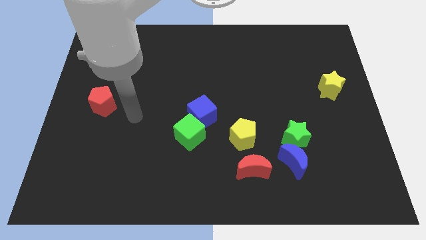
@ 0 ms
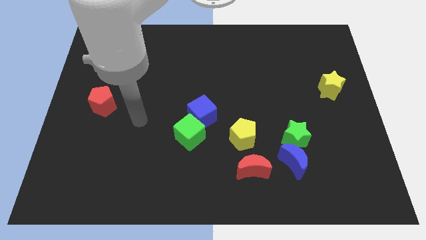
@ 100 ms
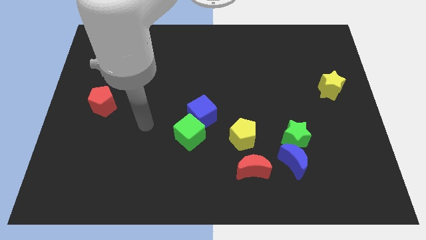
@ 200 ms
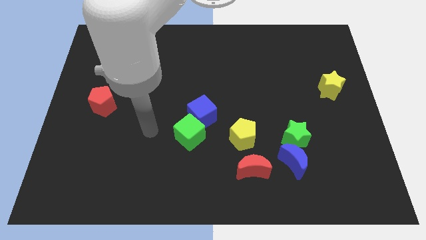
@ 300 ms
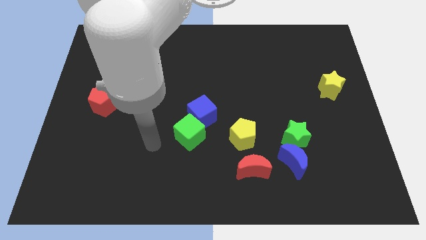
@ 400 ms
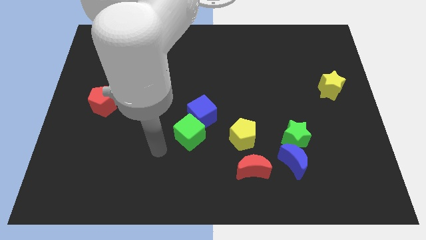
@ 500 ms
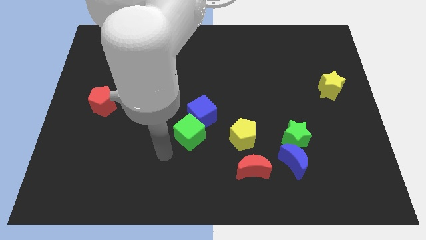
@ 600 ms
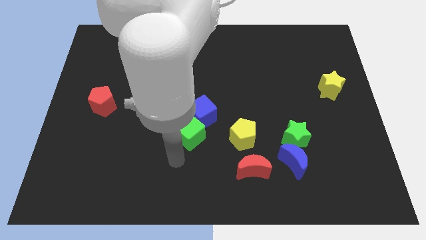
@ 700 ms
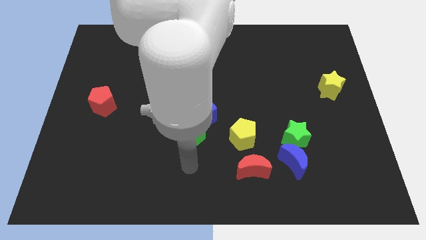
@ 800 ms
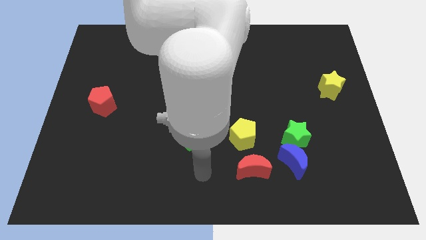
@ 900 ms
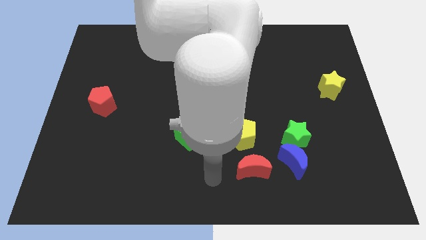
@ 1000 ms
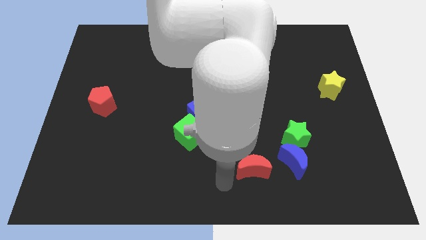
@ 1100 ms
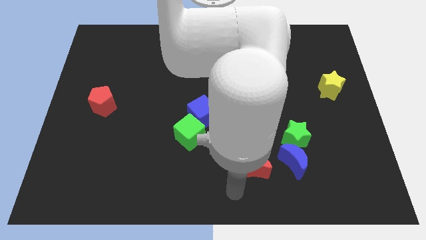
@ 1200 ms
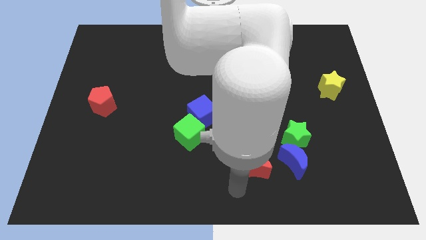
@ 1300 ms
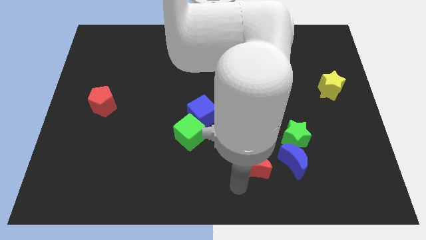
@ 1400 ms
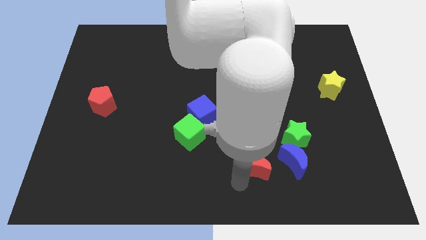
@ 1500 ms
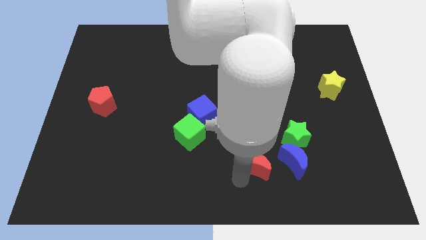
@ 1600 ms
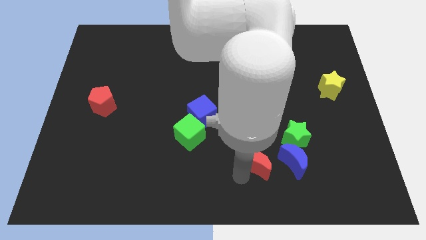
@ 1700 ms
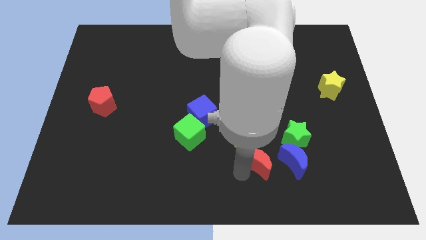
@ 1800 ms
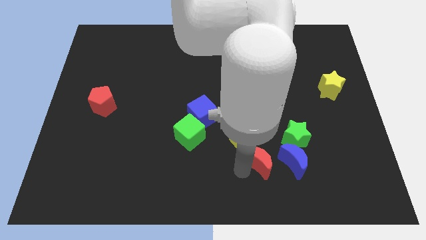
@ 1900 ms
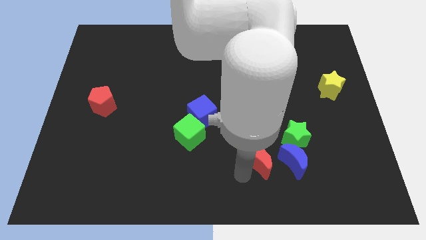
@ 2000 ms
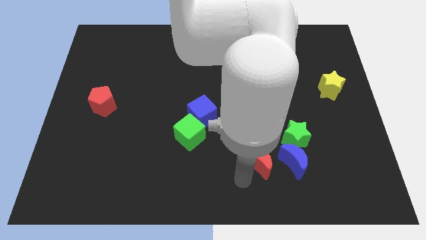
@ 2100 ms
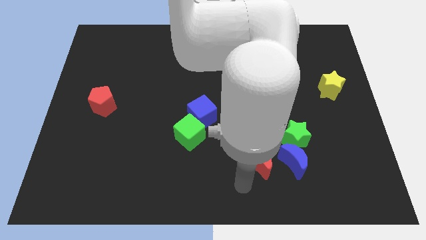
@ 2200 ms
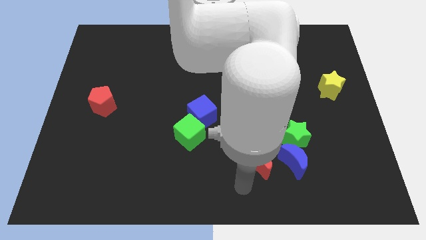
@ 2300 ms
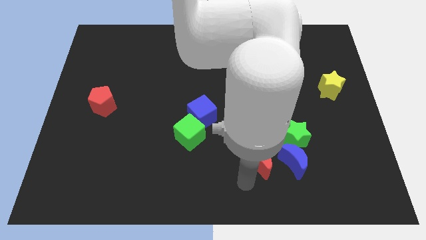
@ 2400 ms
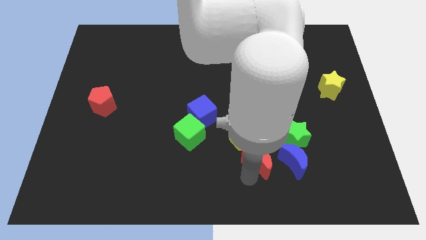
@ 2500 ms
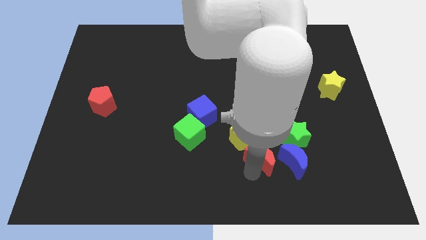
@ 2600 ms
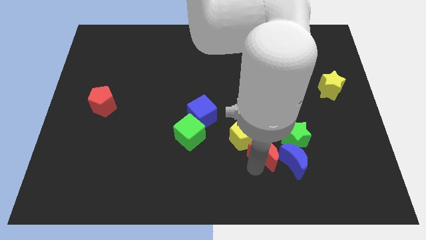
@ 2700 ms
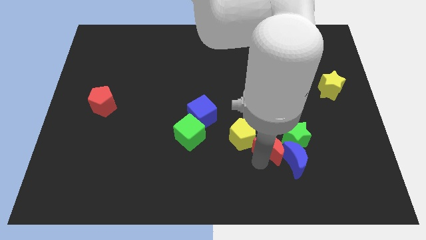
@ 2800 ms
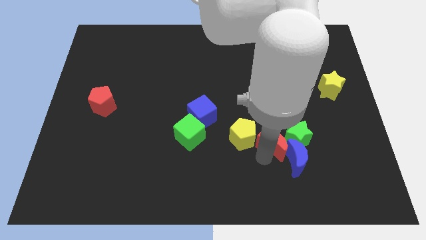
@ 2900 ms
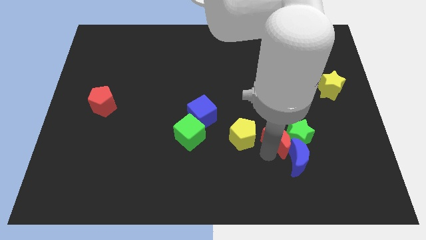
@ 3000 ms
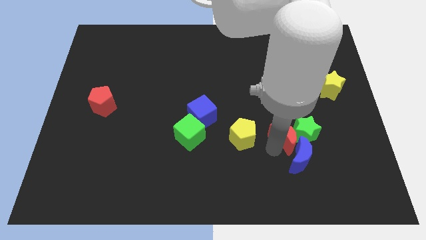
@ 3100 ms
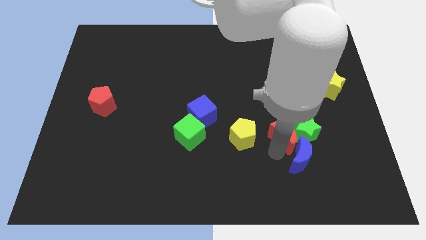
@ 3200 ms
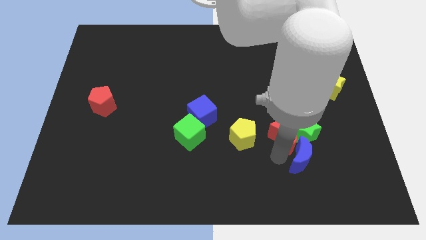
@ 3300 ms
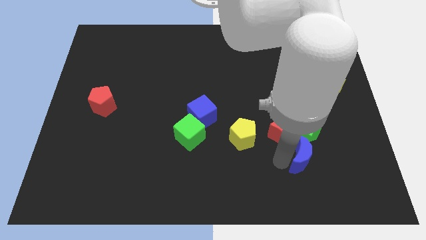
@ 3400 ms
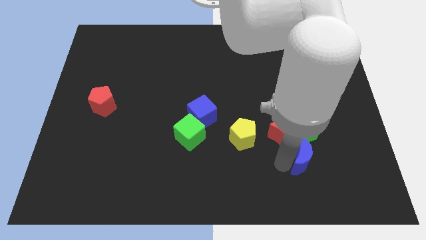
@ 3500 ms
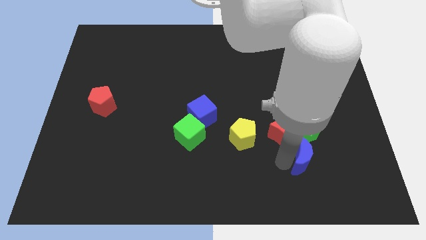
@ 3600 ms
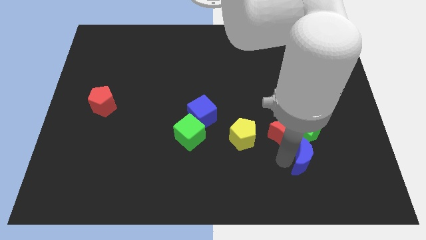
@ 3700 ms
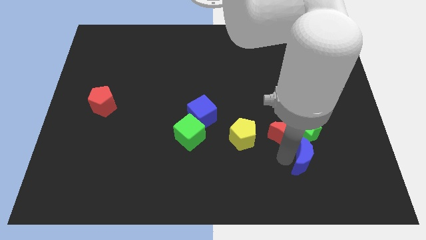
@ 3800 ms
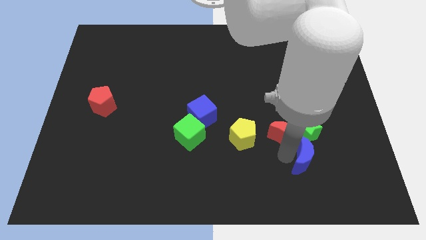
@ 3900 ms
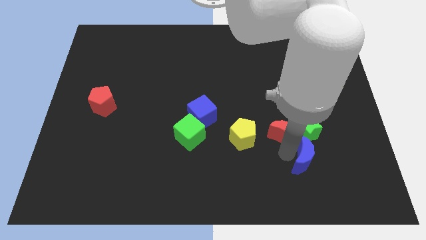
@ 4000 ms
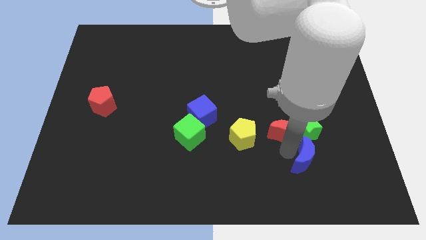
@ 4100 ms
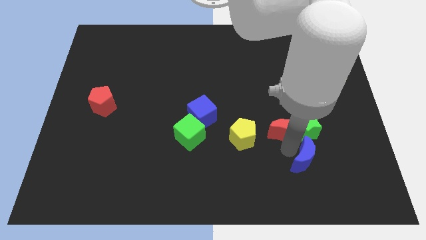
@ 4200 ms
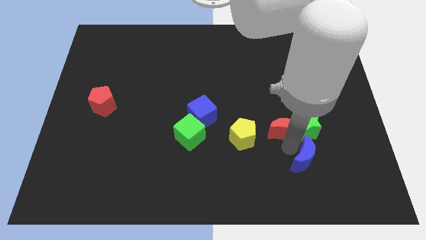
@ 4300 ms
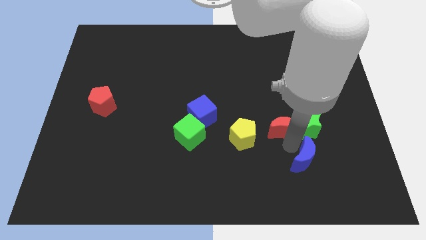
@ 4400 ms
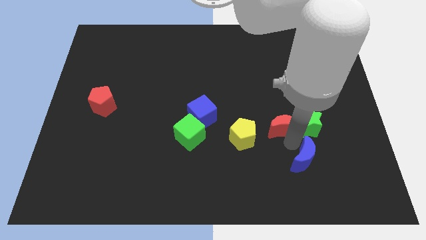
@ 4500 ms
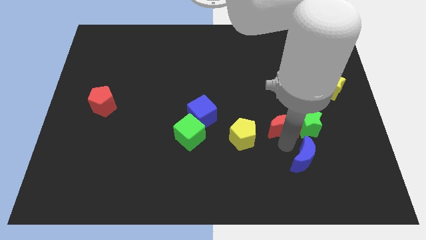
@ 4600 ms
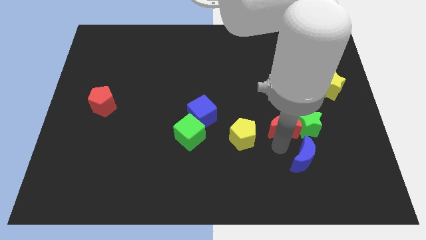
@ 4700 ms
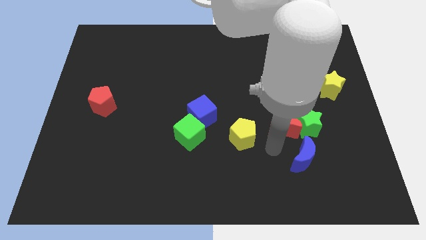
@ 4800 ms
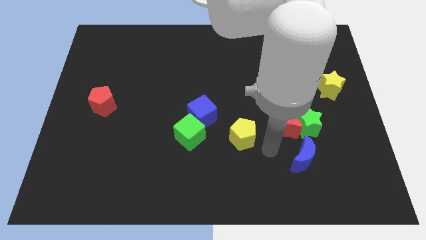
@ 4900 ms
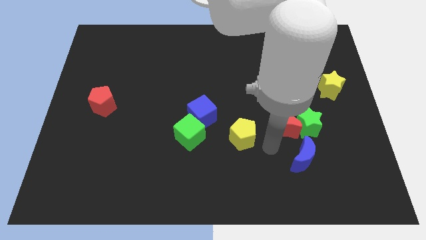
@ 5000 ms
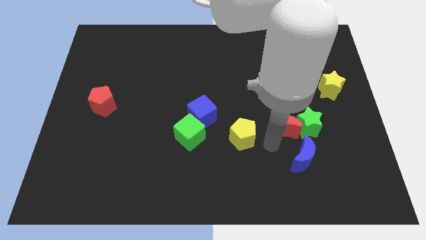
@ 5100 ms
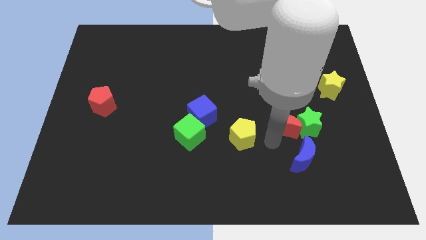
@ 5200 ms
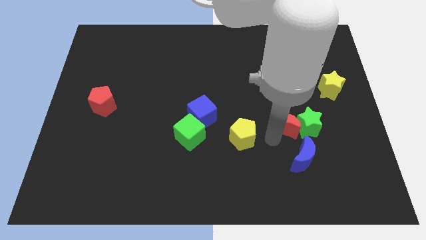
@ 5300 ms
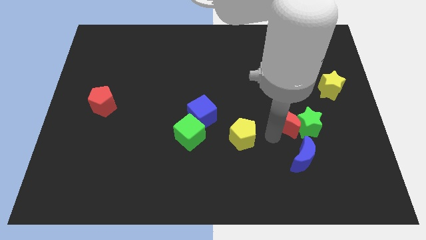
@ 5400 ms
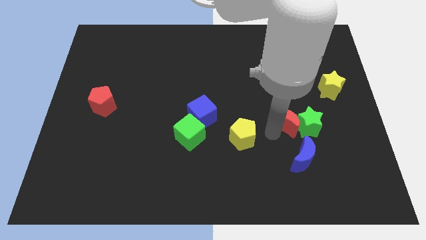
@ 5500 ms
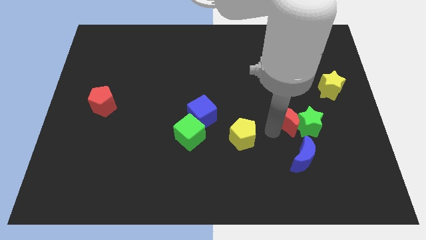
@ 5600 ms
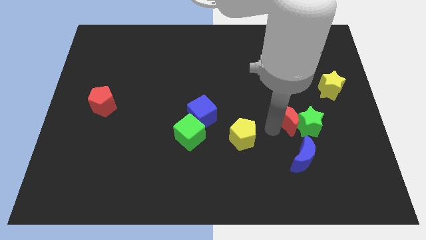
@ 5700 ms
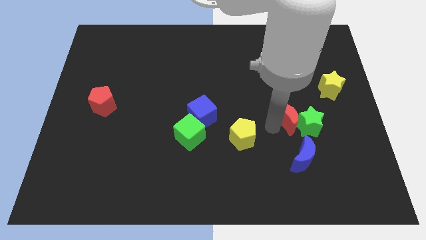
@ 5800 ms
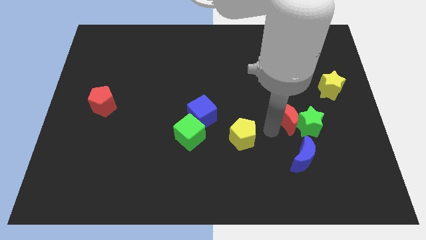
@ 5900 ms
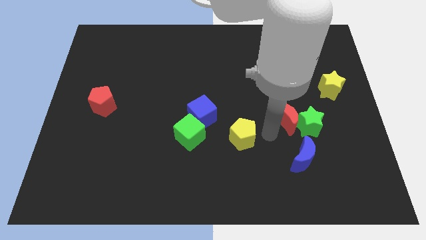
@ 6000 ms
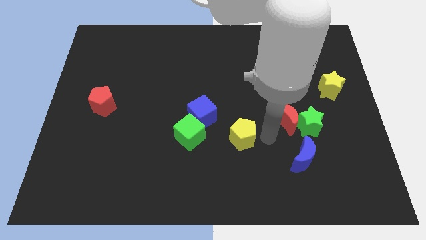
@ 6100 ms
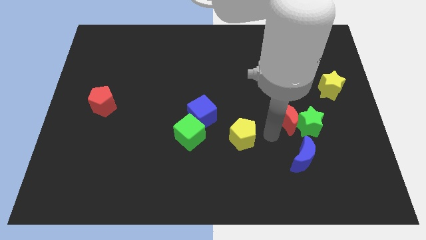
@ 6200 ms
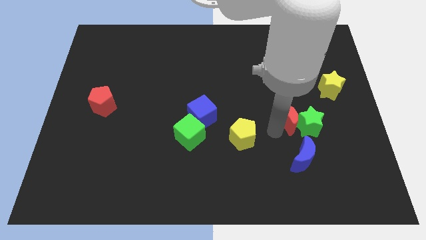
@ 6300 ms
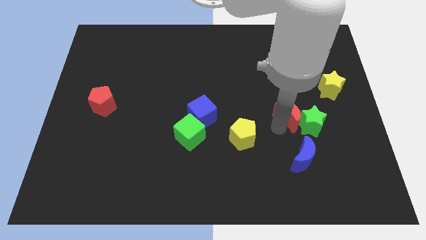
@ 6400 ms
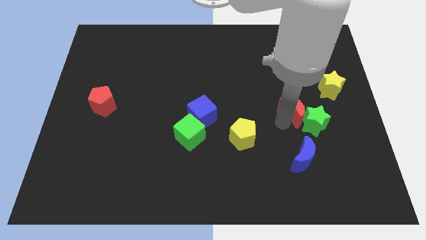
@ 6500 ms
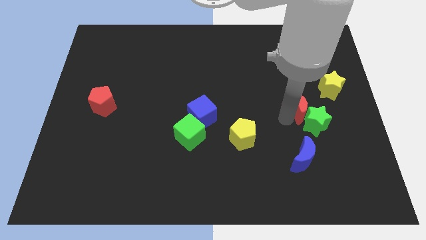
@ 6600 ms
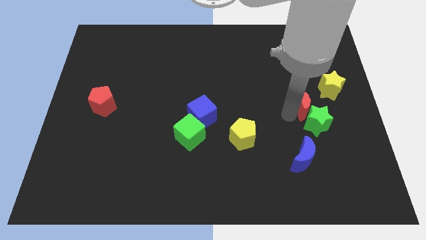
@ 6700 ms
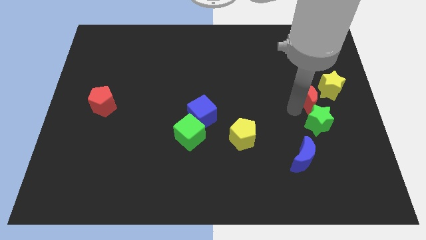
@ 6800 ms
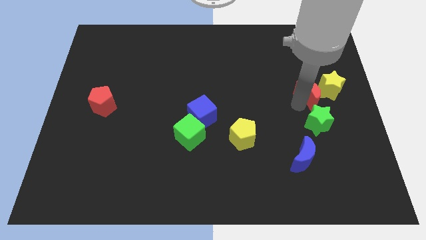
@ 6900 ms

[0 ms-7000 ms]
put the red moon to the yellow star
